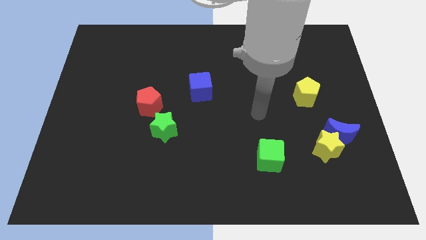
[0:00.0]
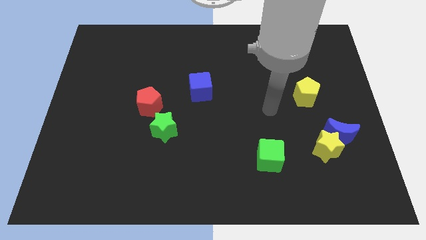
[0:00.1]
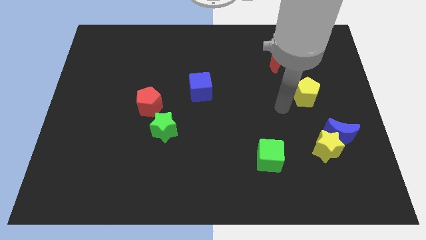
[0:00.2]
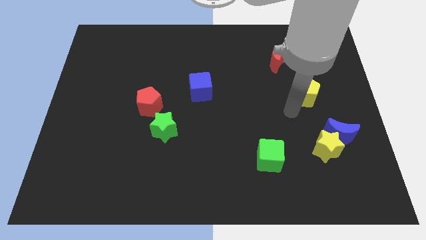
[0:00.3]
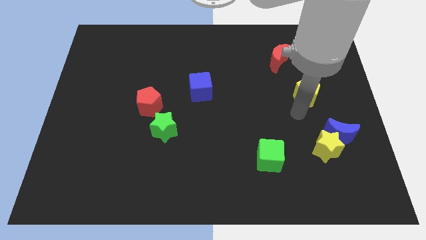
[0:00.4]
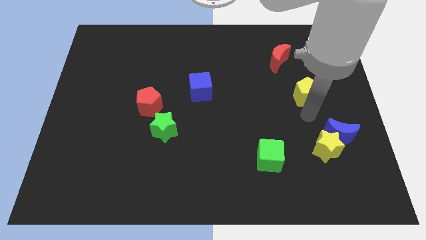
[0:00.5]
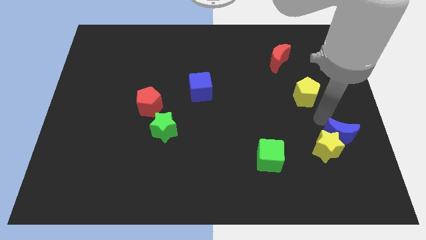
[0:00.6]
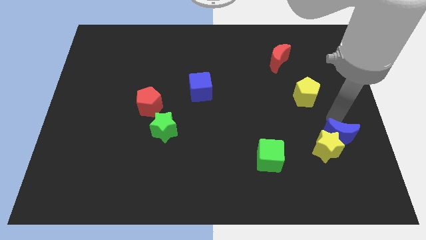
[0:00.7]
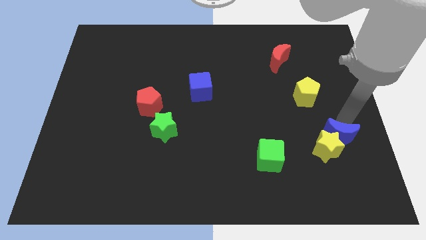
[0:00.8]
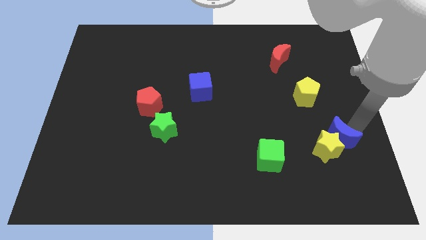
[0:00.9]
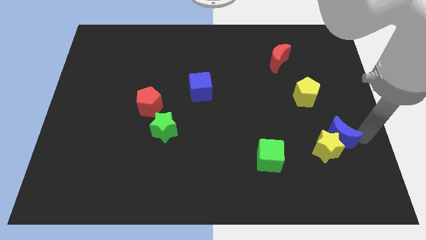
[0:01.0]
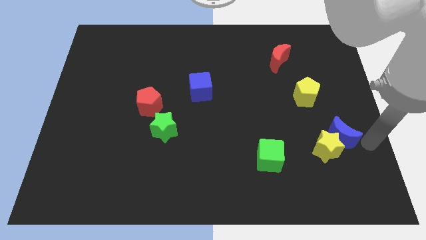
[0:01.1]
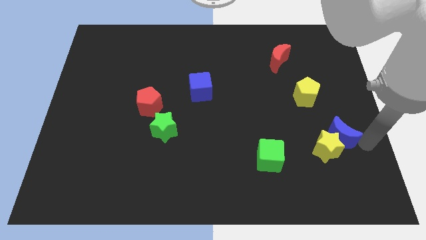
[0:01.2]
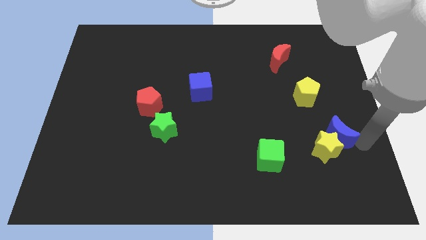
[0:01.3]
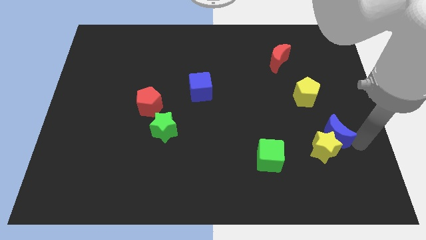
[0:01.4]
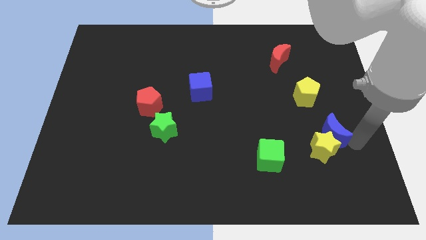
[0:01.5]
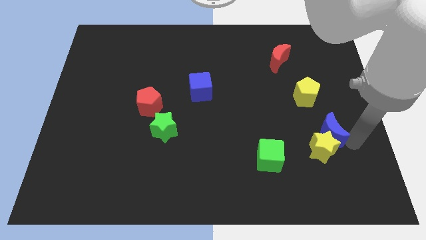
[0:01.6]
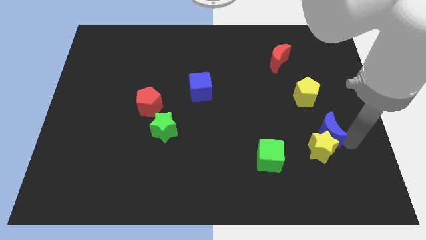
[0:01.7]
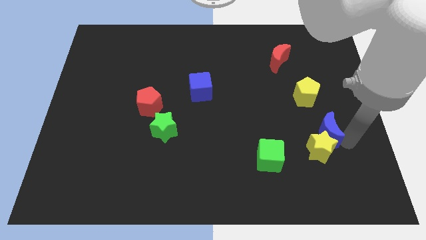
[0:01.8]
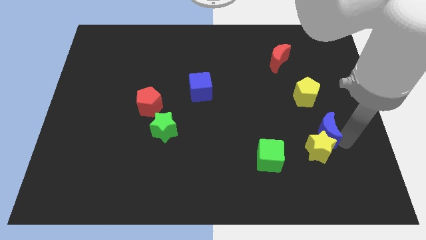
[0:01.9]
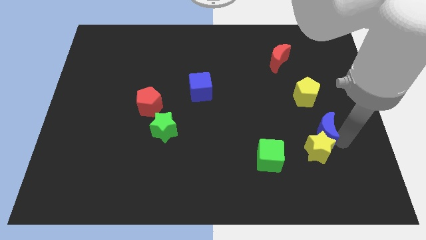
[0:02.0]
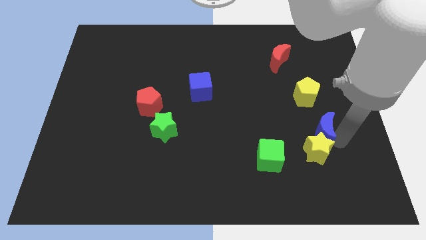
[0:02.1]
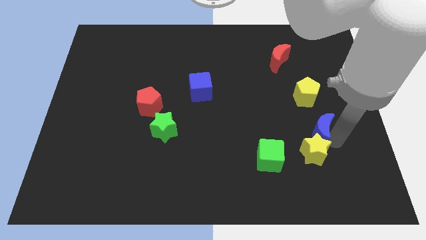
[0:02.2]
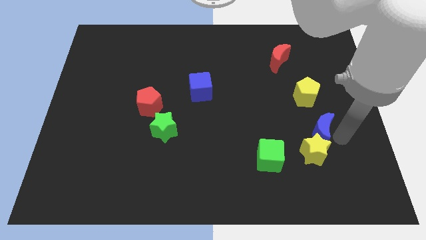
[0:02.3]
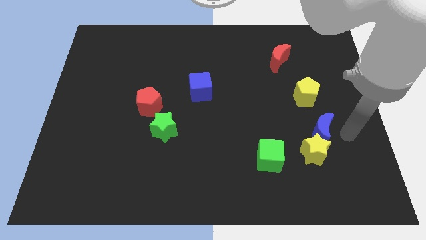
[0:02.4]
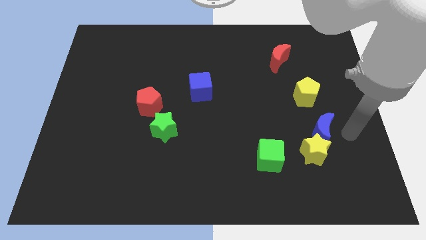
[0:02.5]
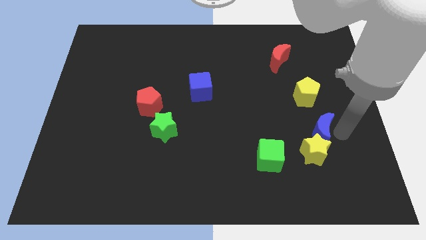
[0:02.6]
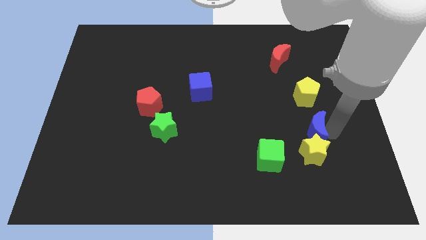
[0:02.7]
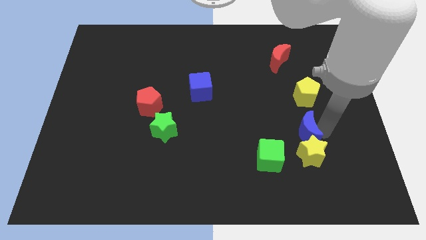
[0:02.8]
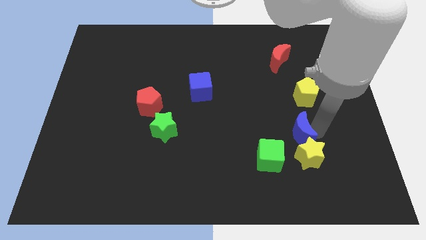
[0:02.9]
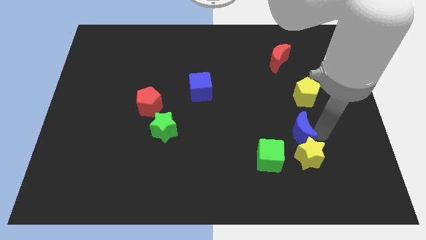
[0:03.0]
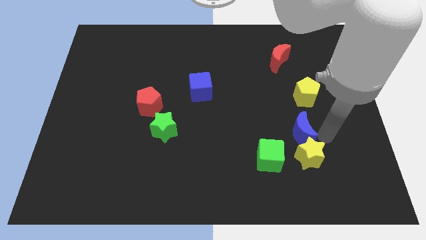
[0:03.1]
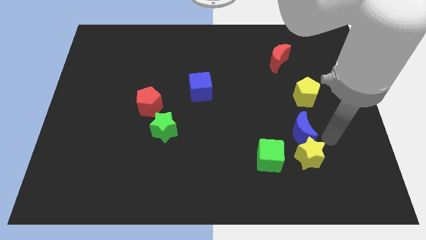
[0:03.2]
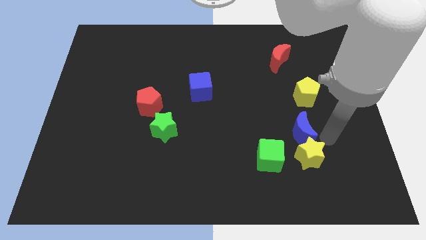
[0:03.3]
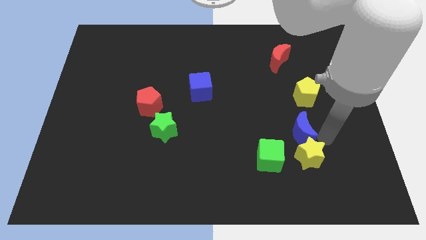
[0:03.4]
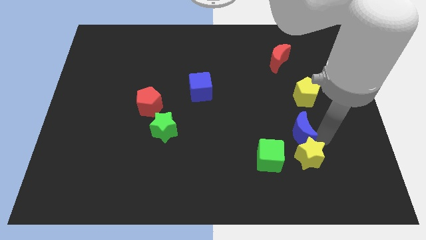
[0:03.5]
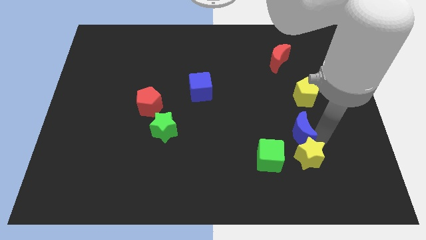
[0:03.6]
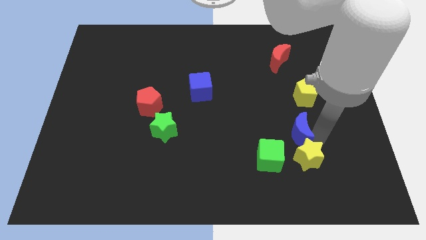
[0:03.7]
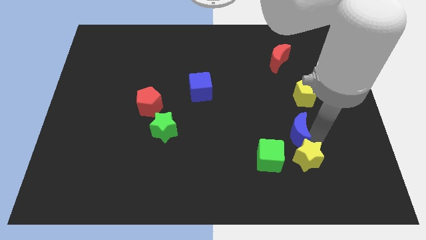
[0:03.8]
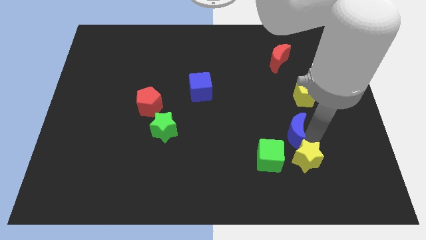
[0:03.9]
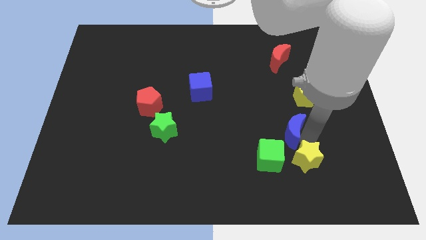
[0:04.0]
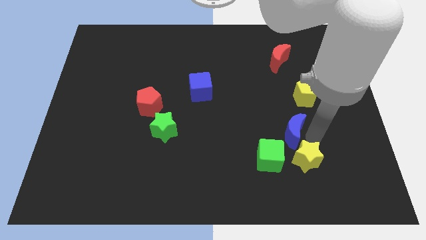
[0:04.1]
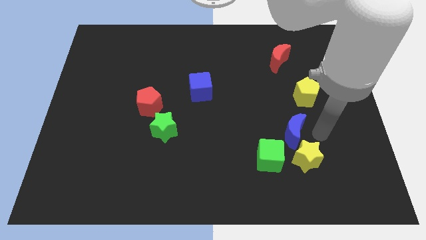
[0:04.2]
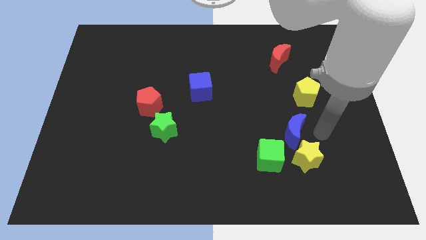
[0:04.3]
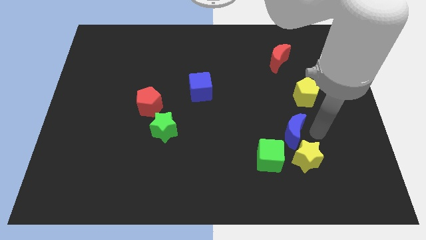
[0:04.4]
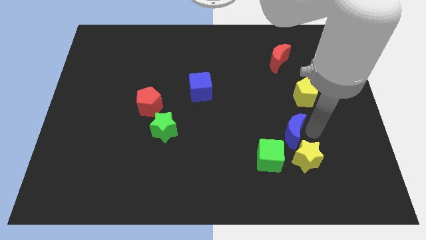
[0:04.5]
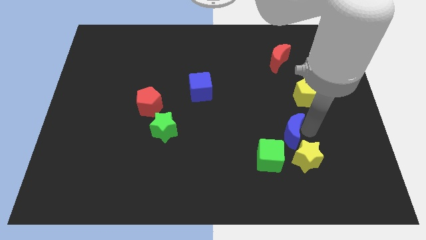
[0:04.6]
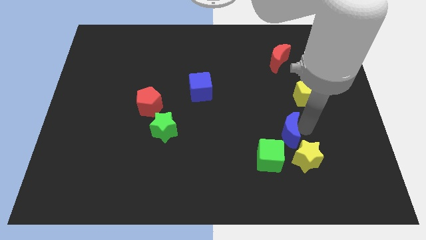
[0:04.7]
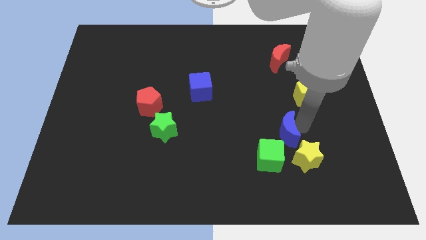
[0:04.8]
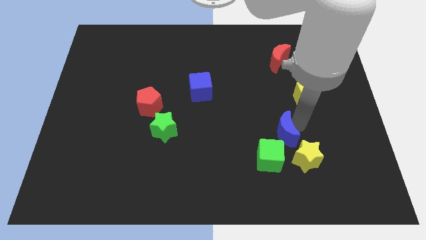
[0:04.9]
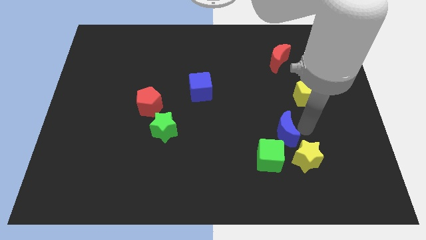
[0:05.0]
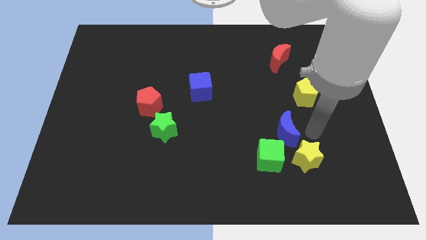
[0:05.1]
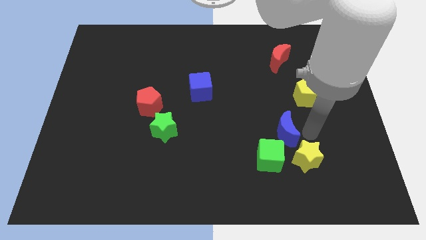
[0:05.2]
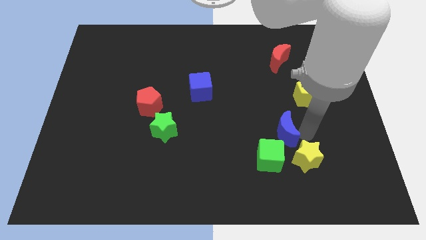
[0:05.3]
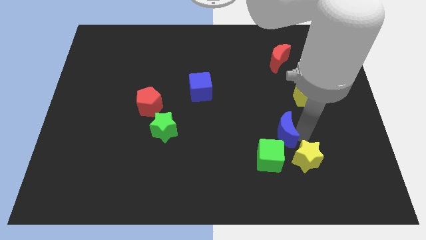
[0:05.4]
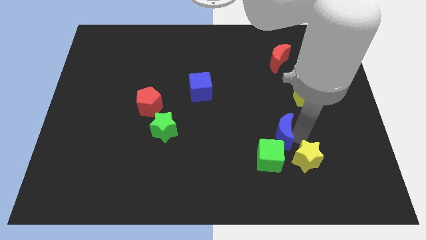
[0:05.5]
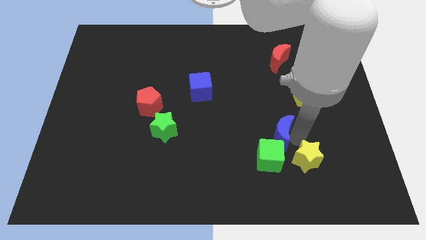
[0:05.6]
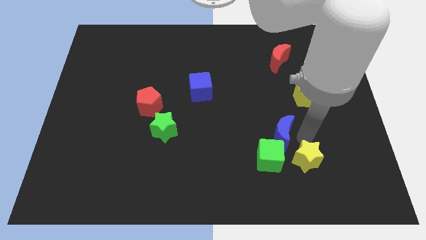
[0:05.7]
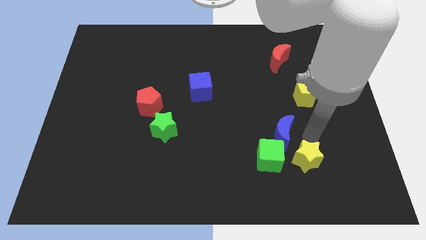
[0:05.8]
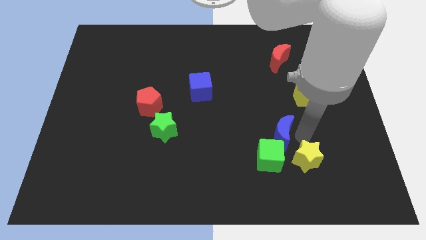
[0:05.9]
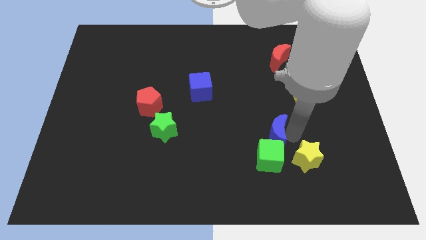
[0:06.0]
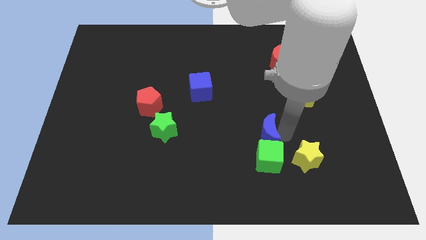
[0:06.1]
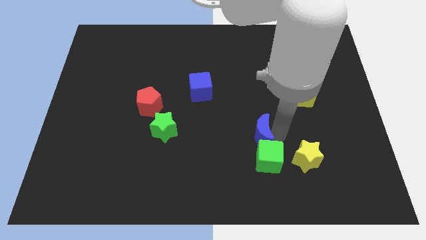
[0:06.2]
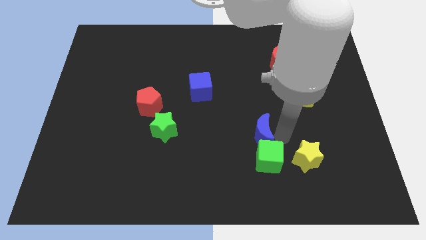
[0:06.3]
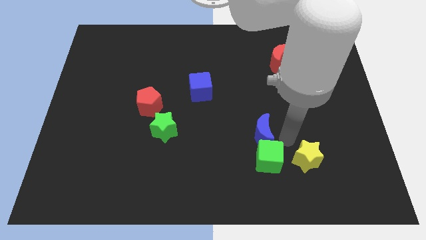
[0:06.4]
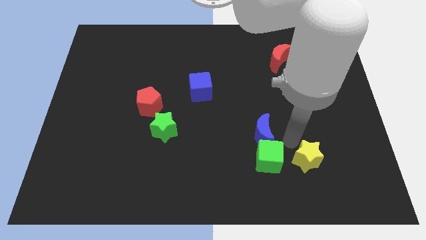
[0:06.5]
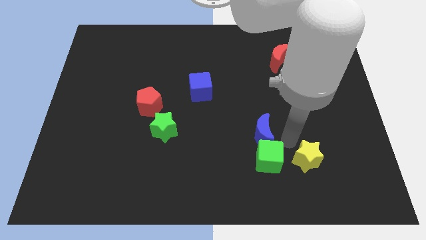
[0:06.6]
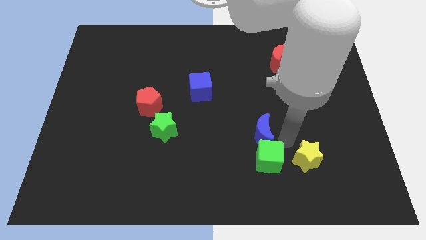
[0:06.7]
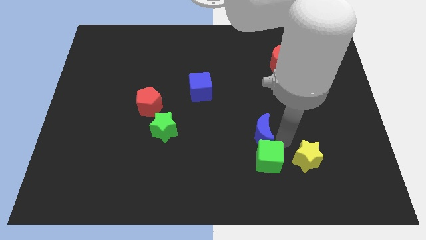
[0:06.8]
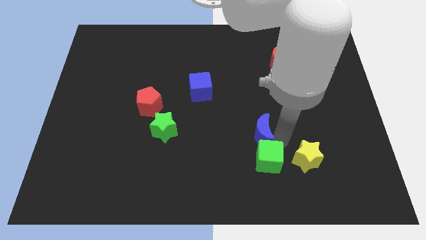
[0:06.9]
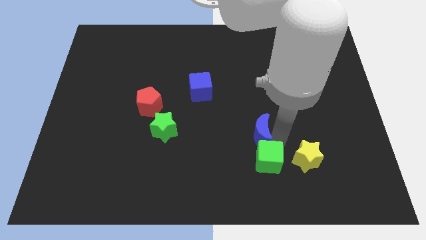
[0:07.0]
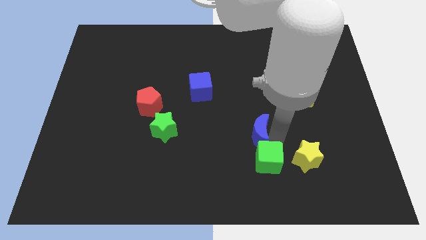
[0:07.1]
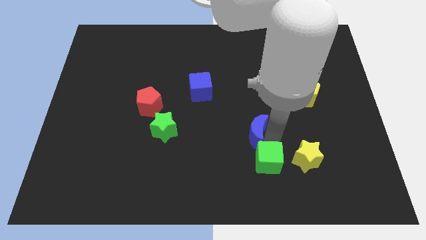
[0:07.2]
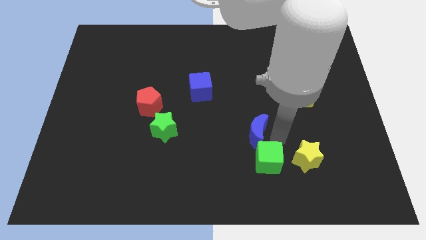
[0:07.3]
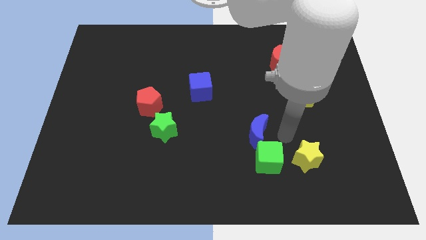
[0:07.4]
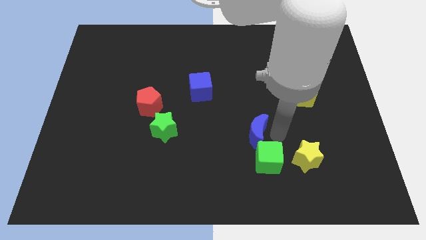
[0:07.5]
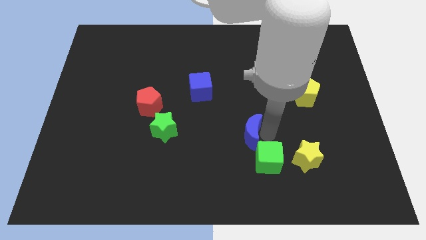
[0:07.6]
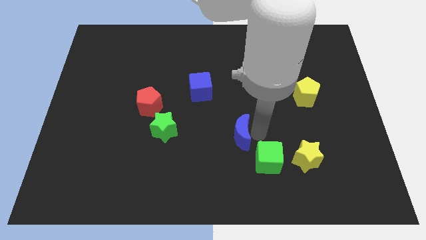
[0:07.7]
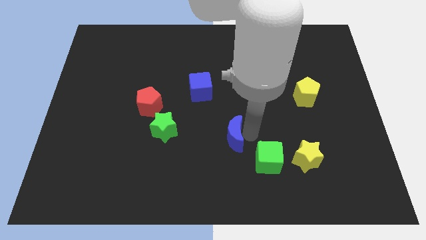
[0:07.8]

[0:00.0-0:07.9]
slide the blue moon to the right side of the green star

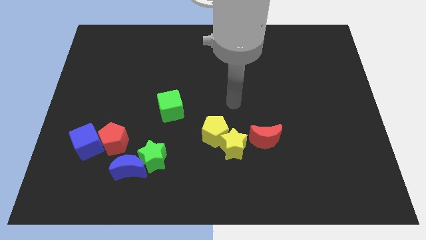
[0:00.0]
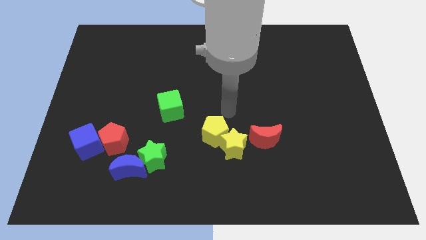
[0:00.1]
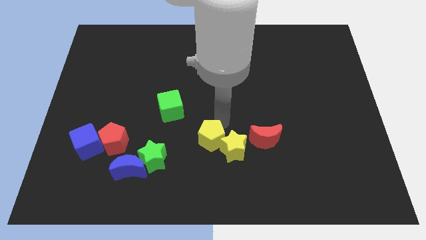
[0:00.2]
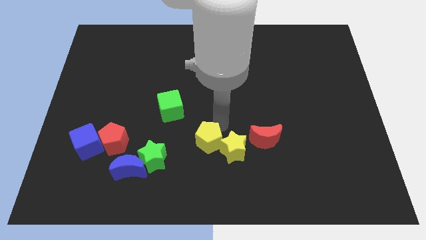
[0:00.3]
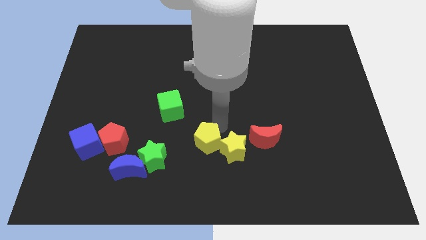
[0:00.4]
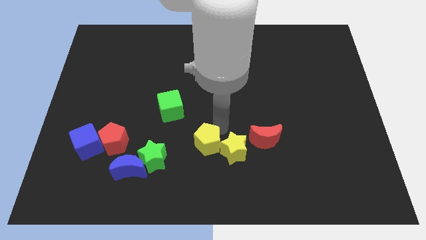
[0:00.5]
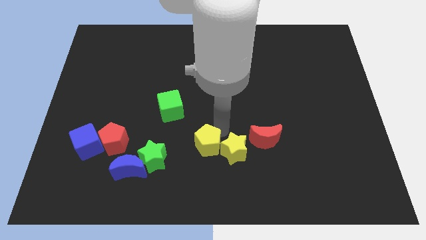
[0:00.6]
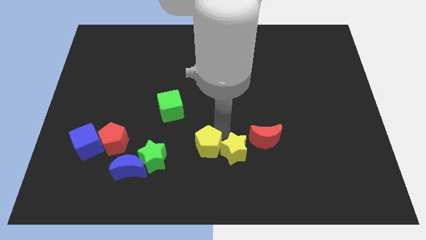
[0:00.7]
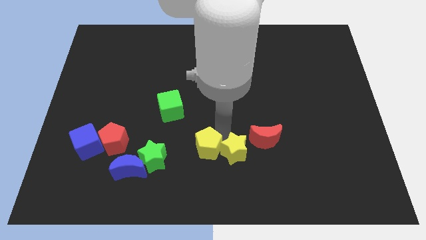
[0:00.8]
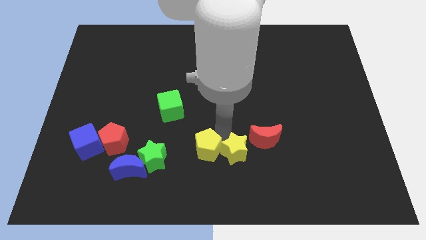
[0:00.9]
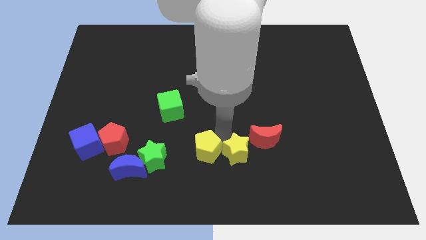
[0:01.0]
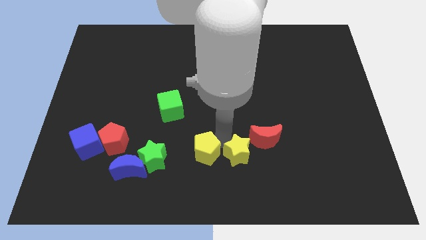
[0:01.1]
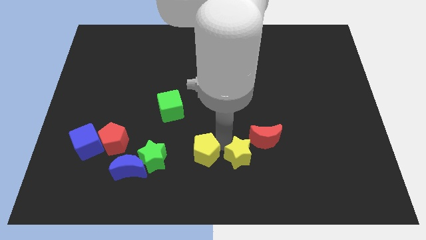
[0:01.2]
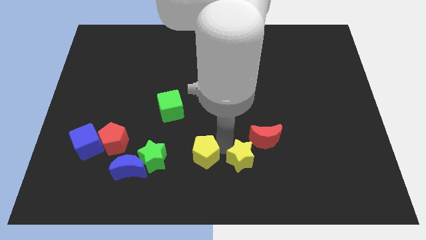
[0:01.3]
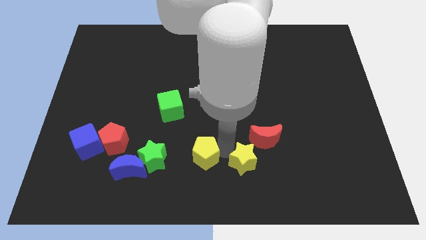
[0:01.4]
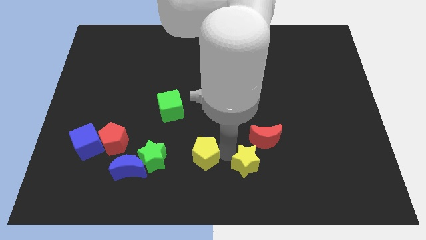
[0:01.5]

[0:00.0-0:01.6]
push the yellow star to the bottom of the red moon
